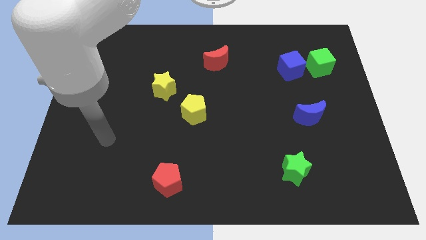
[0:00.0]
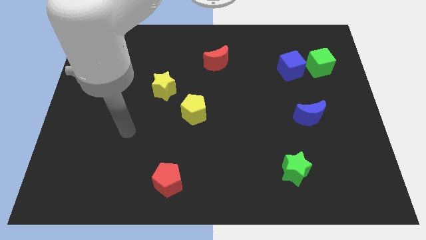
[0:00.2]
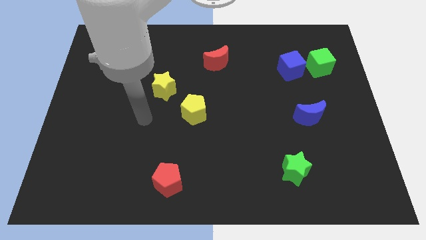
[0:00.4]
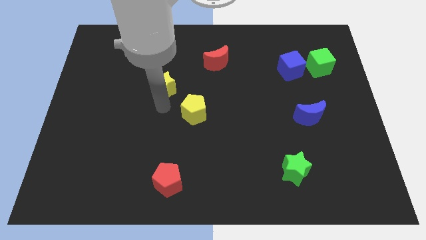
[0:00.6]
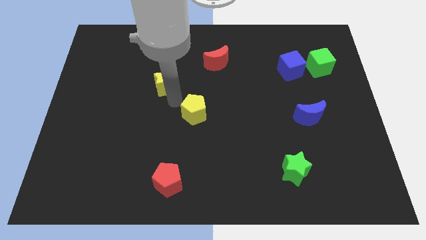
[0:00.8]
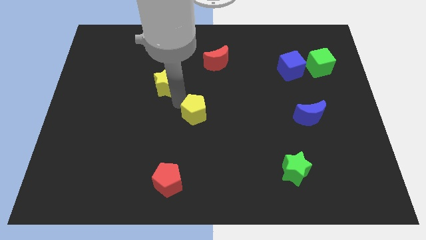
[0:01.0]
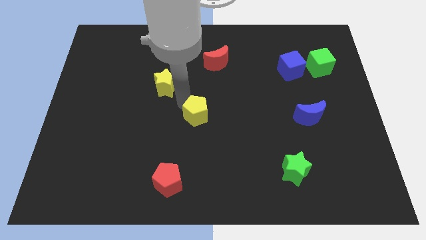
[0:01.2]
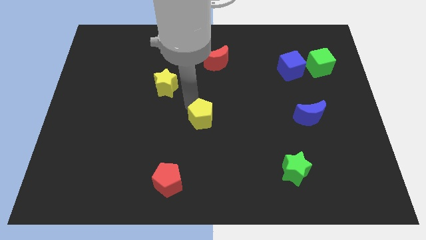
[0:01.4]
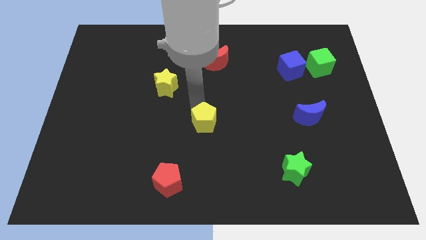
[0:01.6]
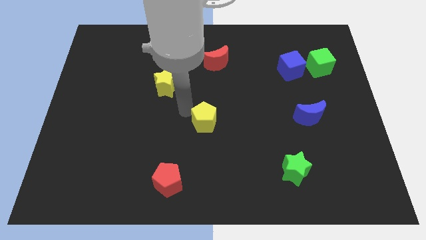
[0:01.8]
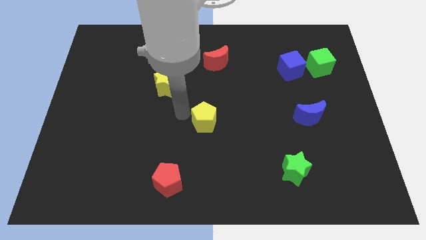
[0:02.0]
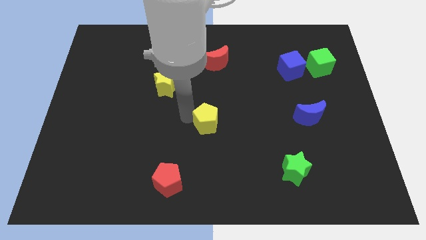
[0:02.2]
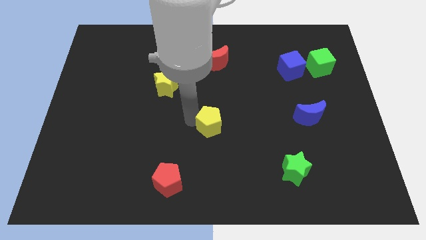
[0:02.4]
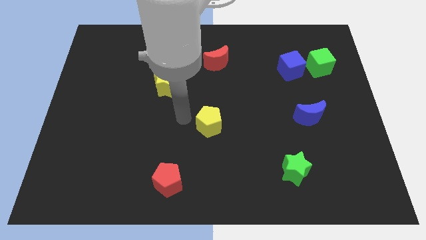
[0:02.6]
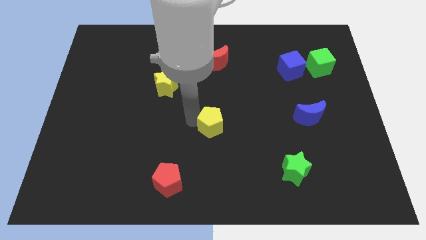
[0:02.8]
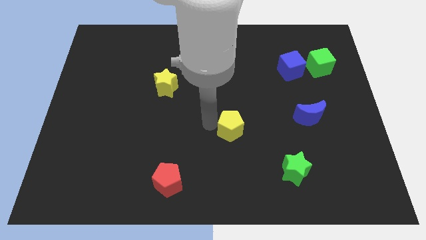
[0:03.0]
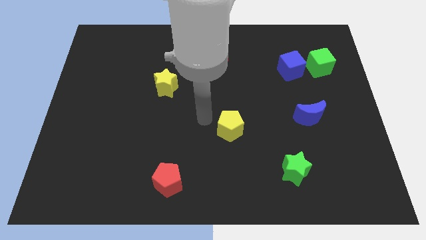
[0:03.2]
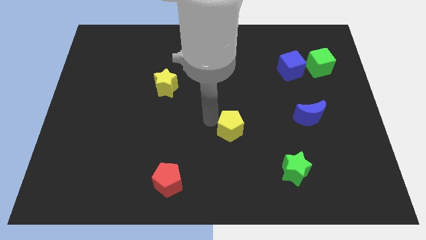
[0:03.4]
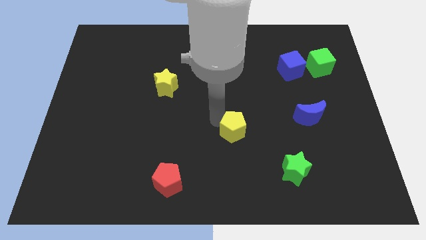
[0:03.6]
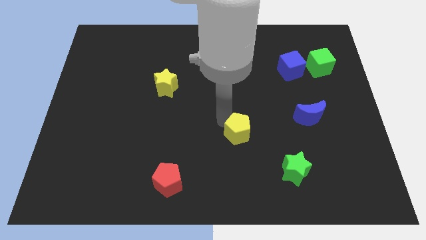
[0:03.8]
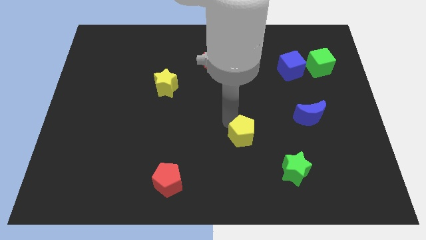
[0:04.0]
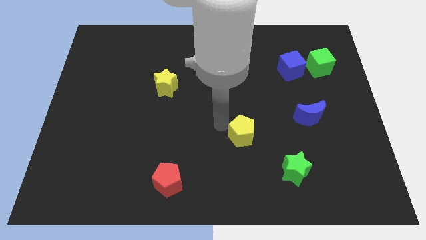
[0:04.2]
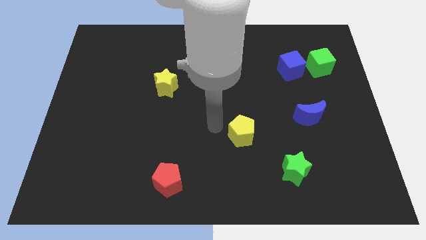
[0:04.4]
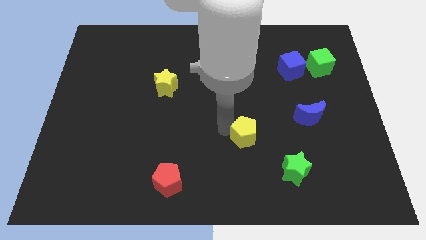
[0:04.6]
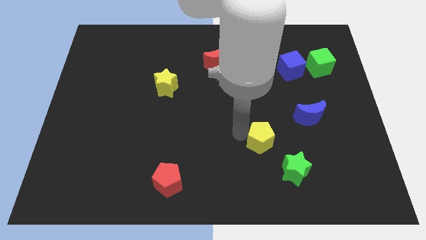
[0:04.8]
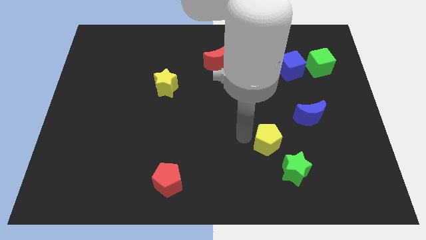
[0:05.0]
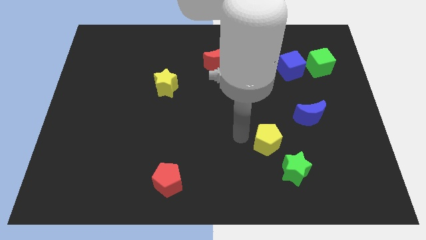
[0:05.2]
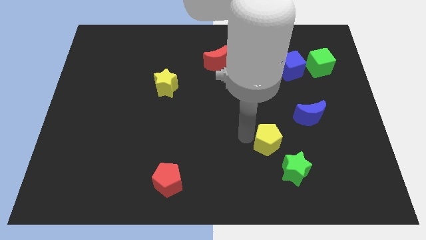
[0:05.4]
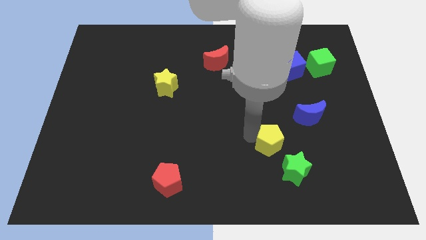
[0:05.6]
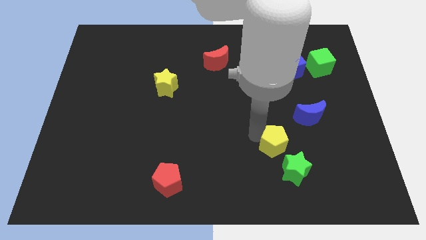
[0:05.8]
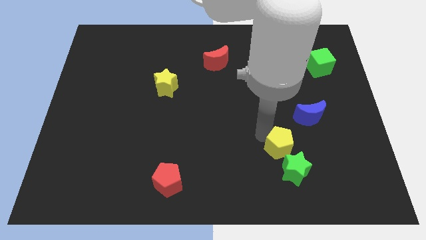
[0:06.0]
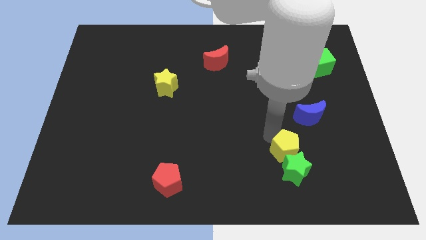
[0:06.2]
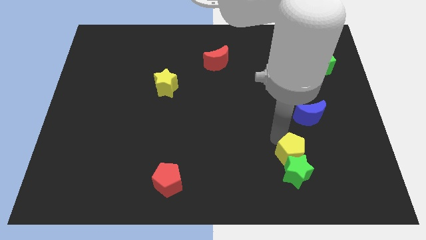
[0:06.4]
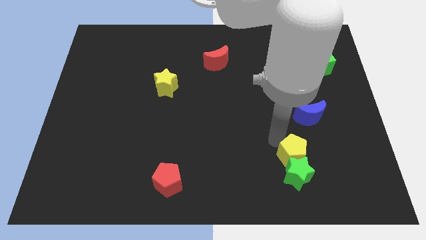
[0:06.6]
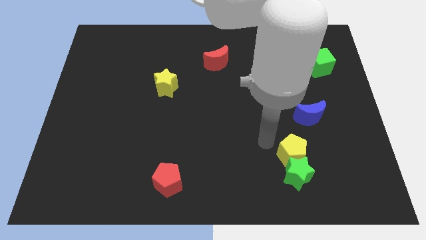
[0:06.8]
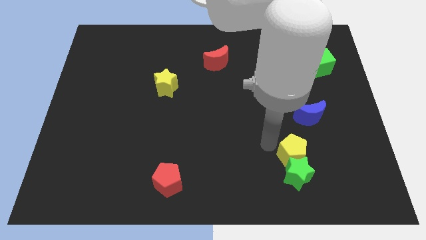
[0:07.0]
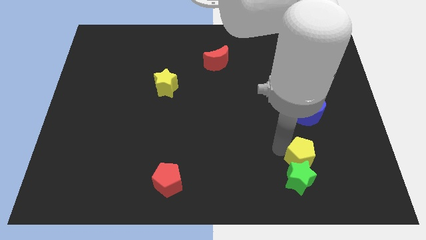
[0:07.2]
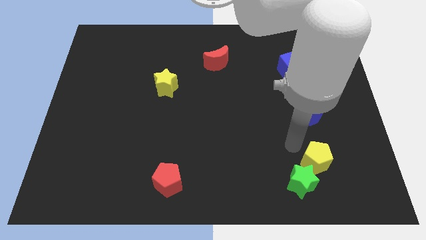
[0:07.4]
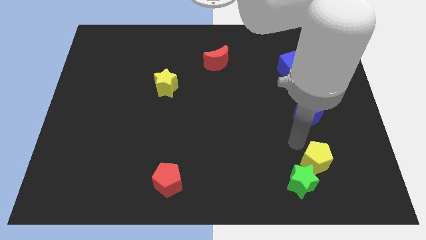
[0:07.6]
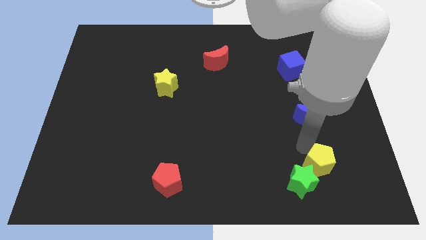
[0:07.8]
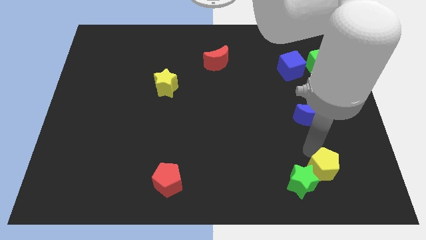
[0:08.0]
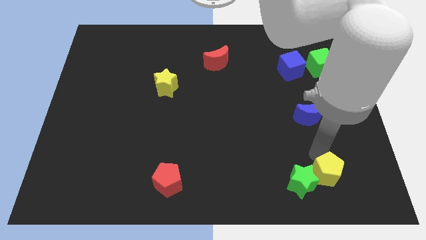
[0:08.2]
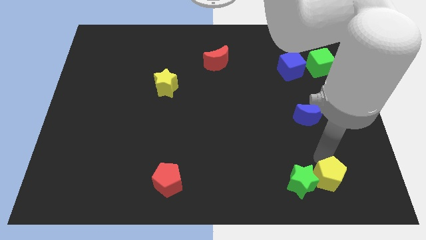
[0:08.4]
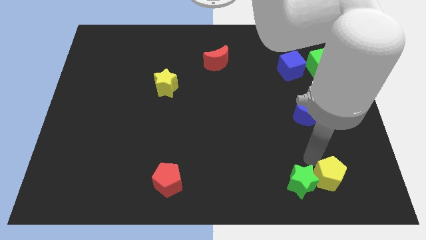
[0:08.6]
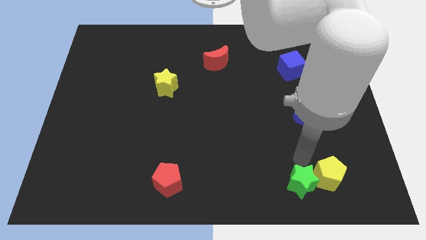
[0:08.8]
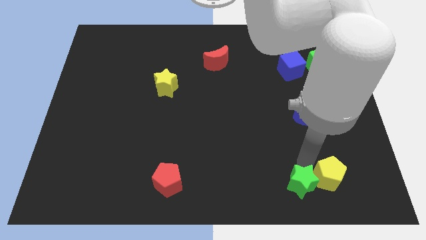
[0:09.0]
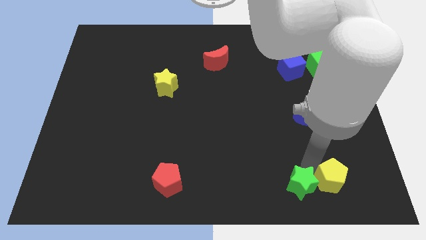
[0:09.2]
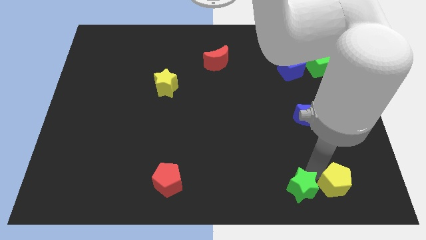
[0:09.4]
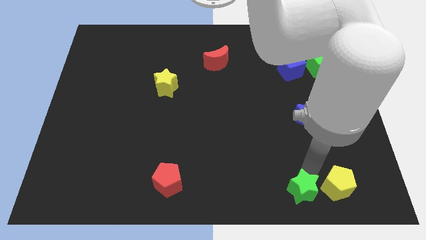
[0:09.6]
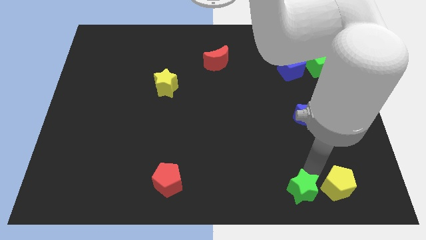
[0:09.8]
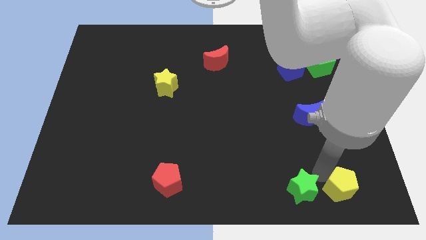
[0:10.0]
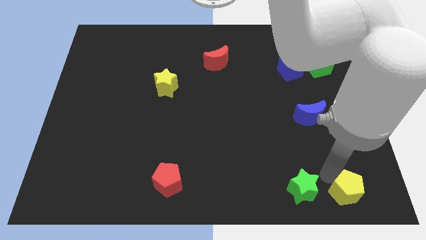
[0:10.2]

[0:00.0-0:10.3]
move the yellow pentagon to the bottom right of the board
